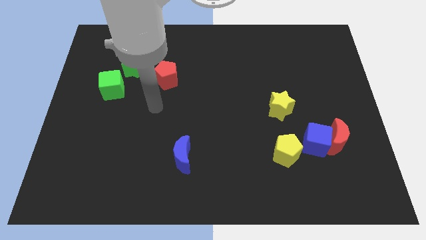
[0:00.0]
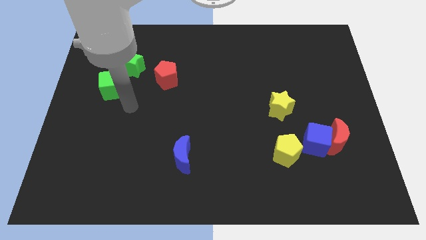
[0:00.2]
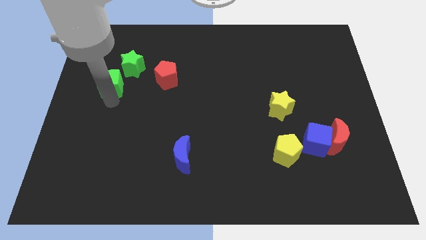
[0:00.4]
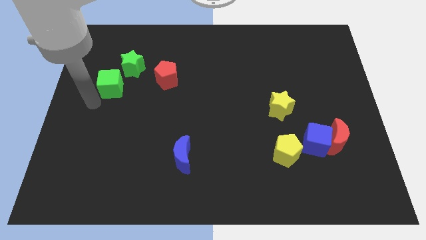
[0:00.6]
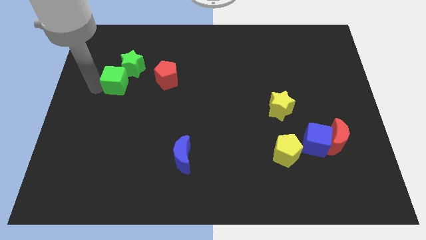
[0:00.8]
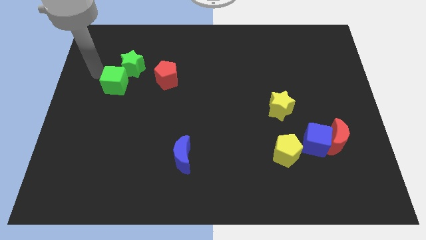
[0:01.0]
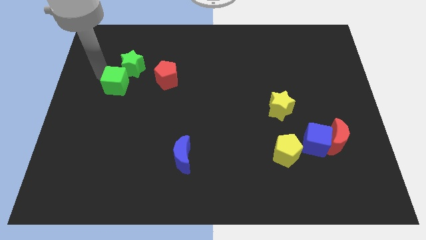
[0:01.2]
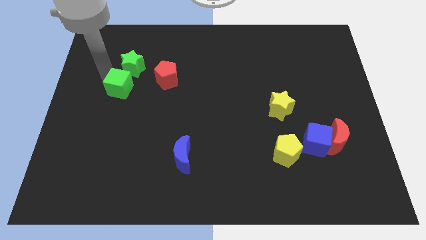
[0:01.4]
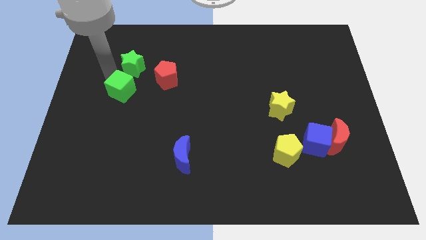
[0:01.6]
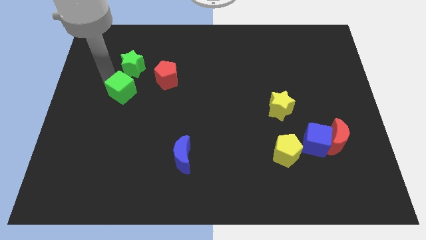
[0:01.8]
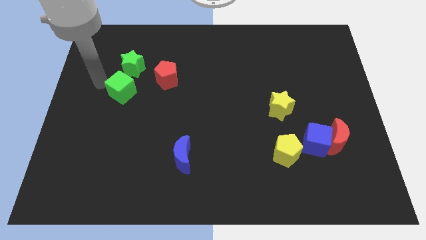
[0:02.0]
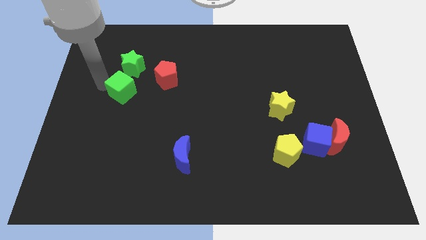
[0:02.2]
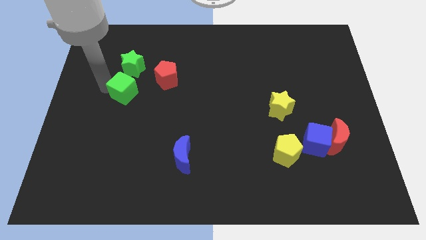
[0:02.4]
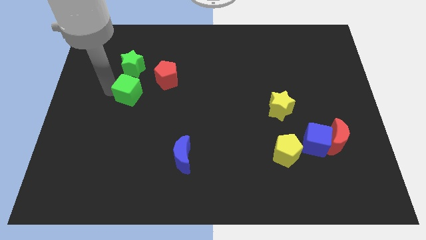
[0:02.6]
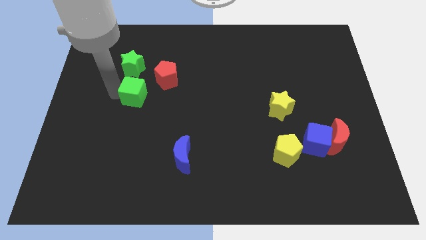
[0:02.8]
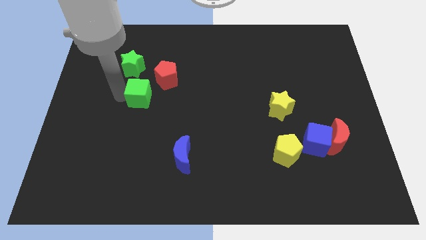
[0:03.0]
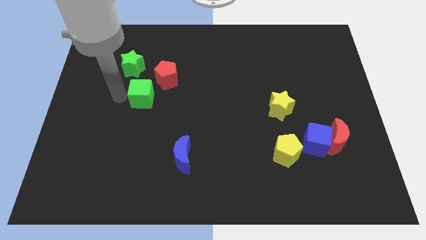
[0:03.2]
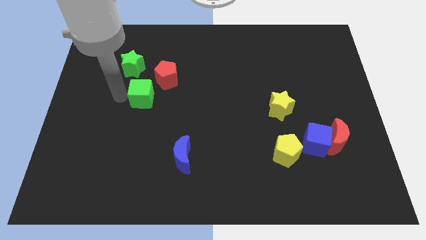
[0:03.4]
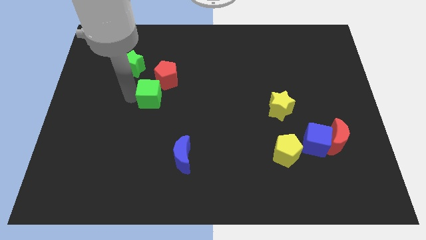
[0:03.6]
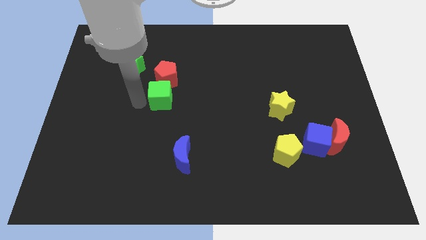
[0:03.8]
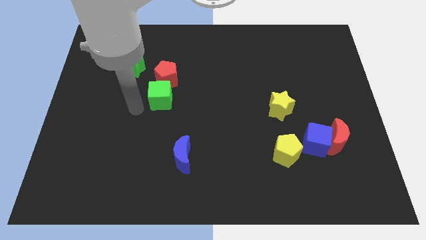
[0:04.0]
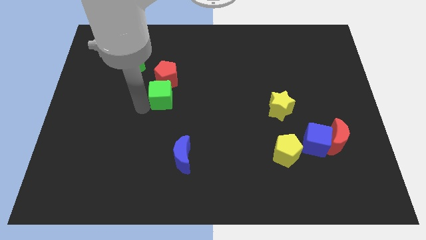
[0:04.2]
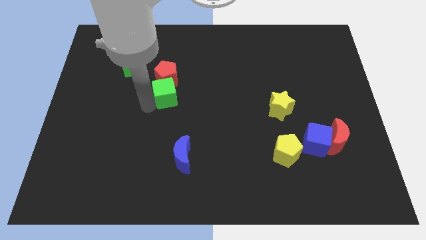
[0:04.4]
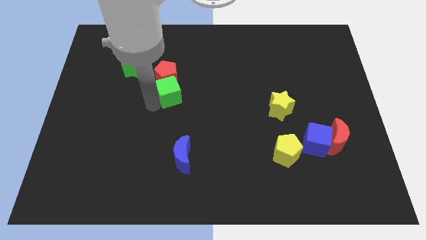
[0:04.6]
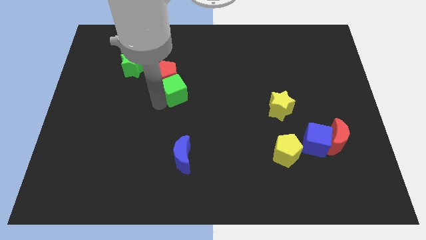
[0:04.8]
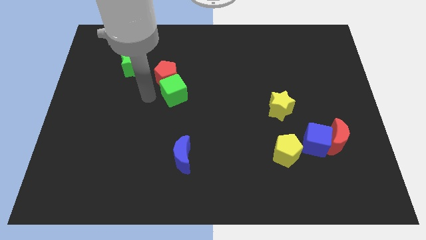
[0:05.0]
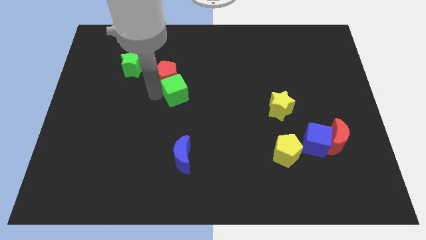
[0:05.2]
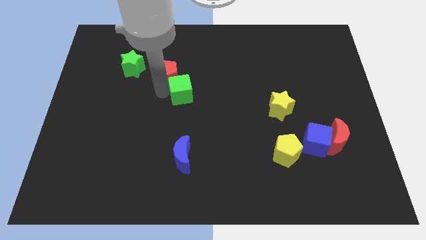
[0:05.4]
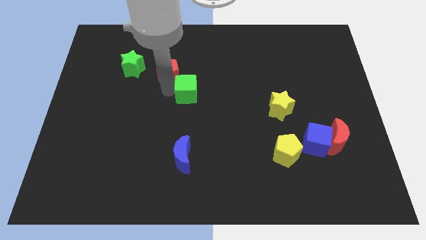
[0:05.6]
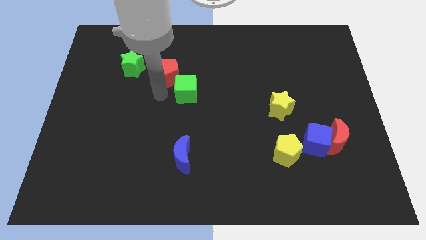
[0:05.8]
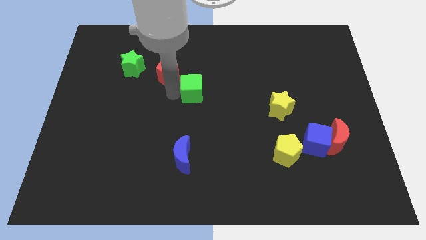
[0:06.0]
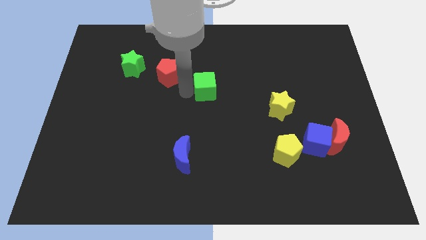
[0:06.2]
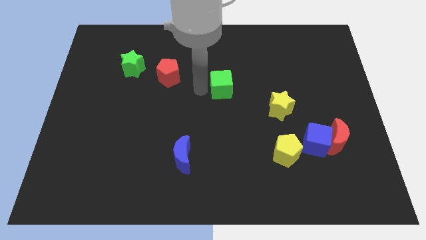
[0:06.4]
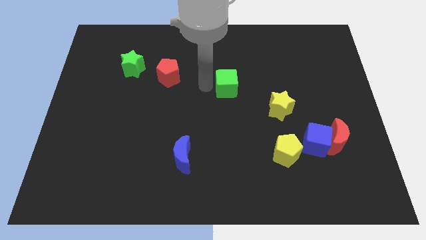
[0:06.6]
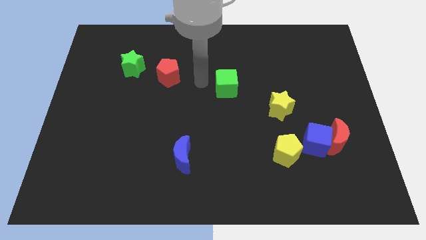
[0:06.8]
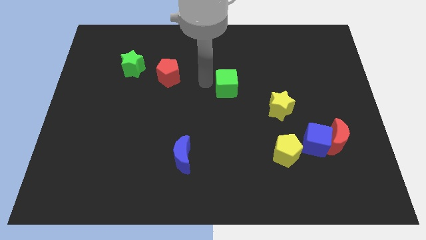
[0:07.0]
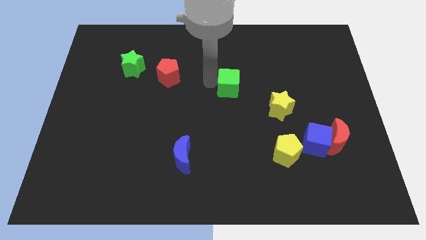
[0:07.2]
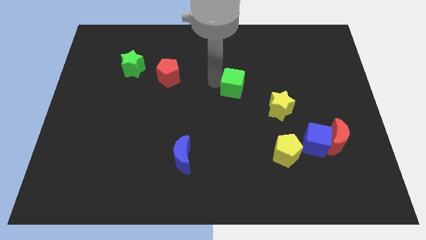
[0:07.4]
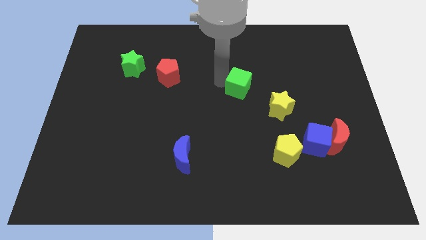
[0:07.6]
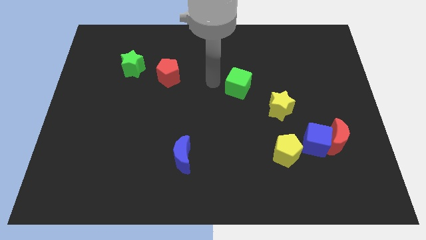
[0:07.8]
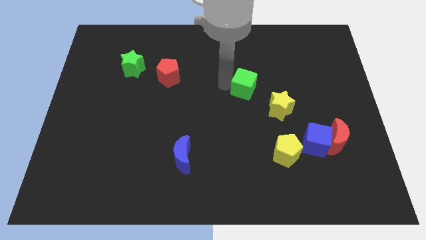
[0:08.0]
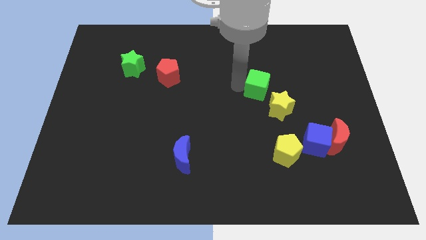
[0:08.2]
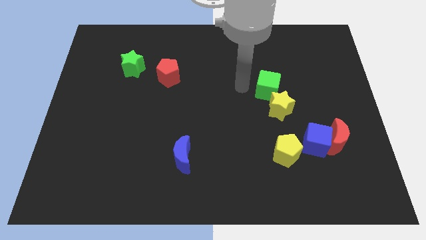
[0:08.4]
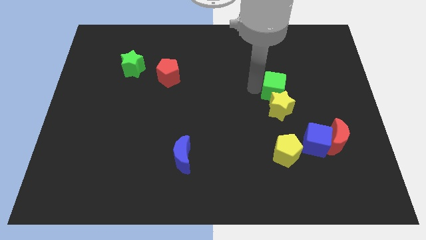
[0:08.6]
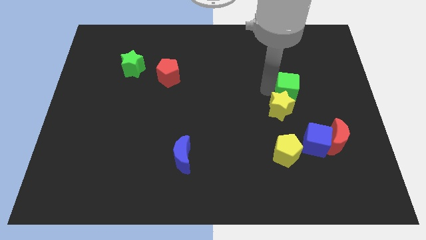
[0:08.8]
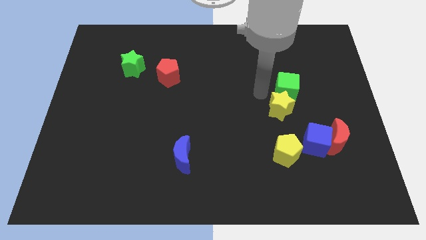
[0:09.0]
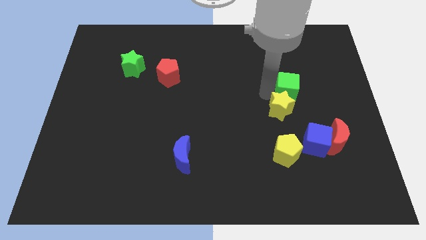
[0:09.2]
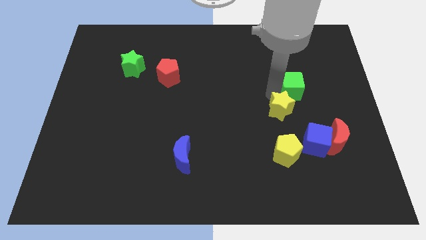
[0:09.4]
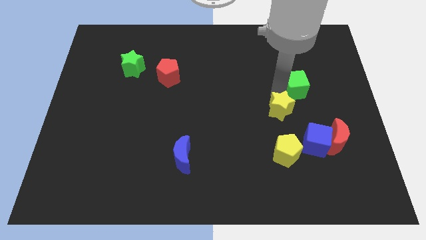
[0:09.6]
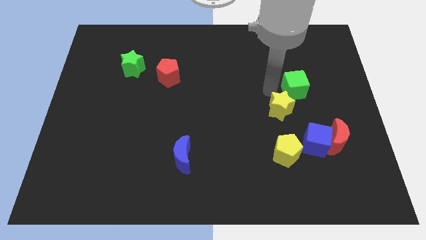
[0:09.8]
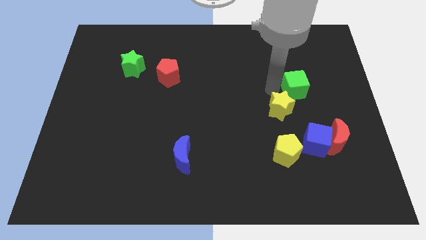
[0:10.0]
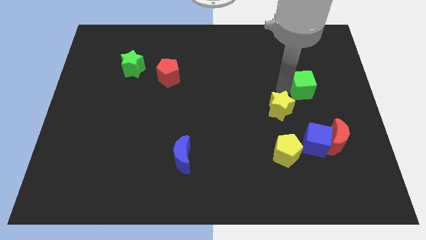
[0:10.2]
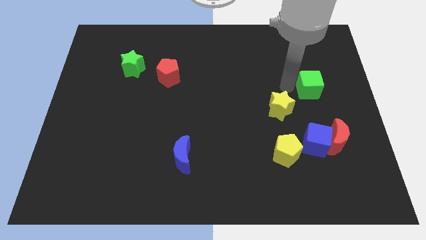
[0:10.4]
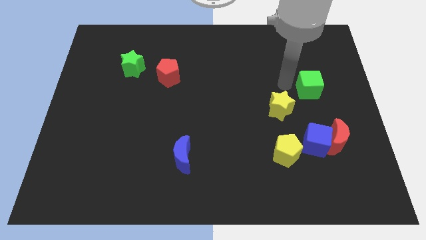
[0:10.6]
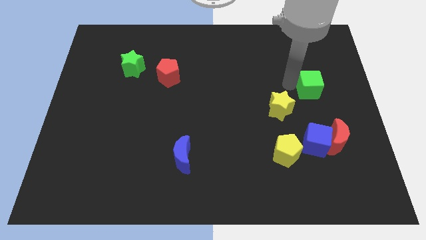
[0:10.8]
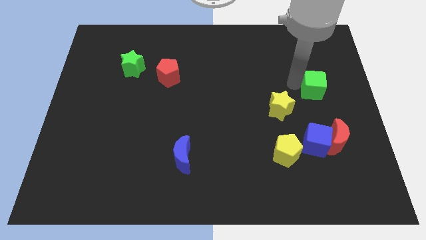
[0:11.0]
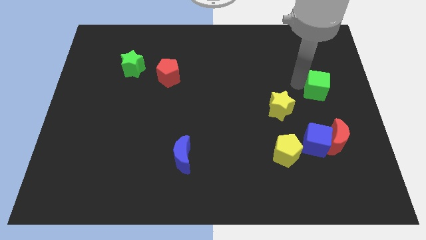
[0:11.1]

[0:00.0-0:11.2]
slide the green cube to the right side of the board

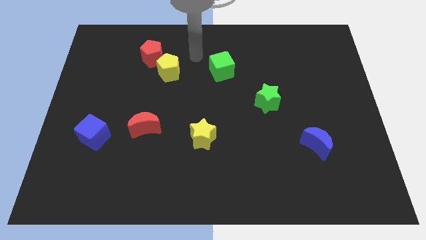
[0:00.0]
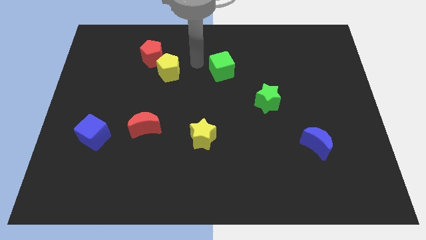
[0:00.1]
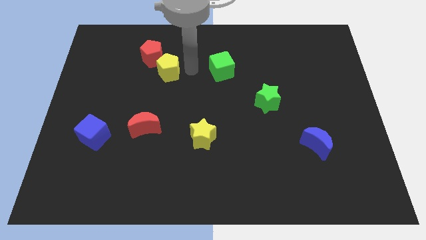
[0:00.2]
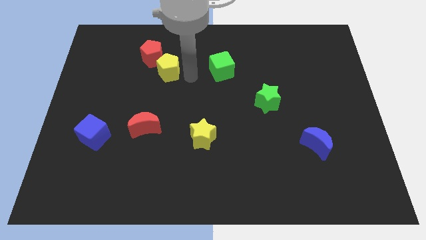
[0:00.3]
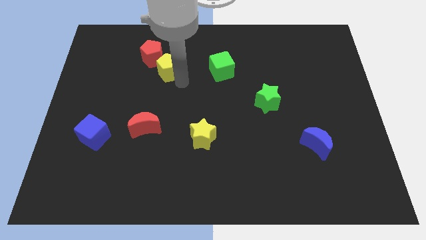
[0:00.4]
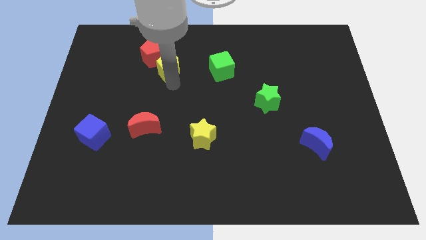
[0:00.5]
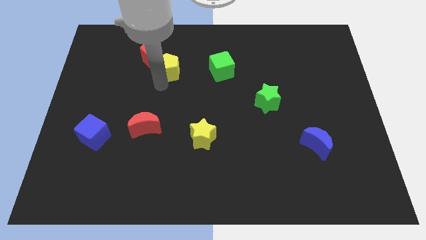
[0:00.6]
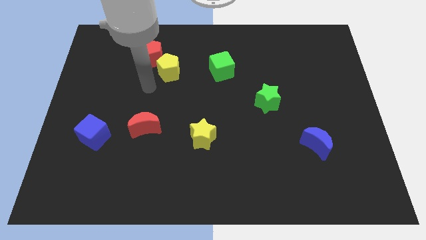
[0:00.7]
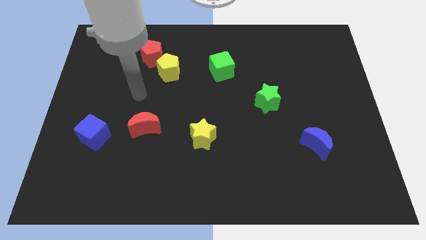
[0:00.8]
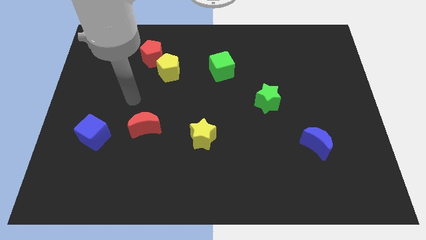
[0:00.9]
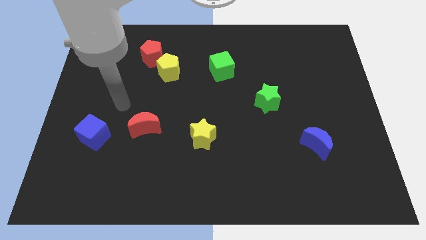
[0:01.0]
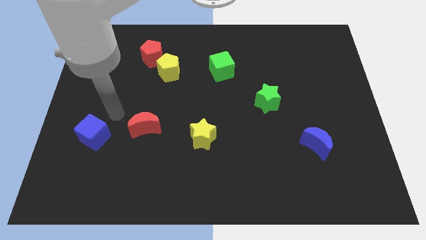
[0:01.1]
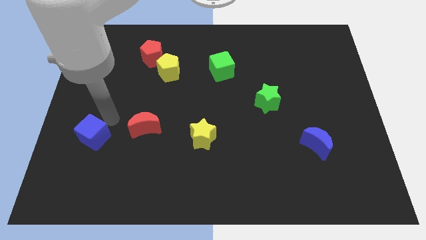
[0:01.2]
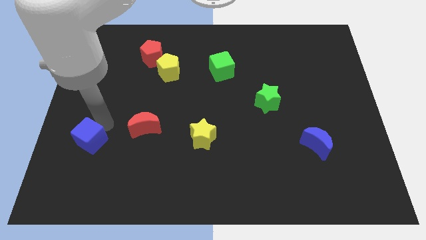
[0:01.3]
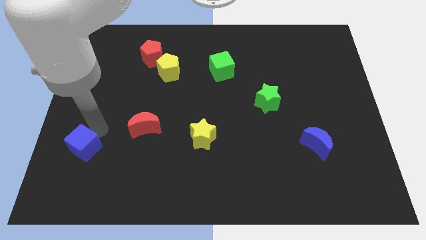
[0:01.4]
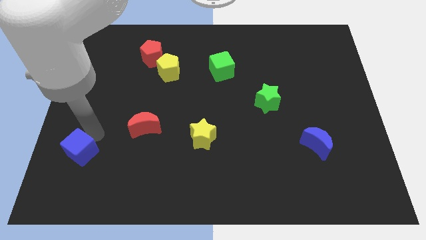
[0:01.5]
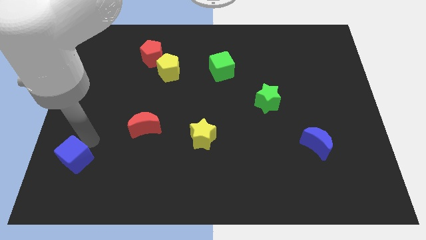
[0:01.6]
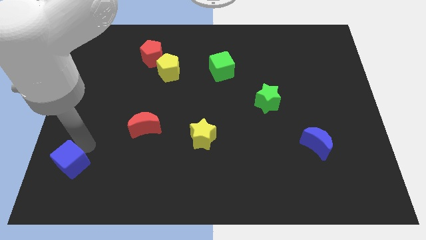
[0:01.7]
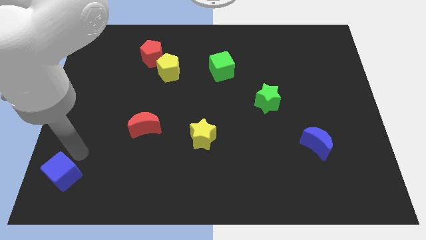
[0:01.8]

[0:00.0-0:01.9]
push the blue cube to the bottom left corner

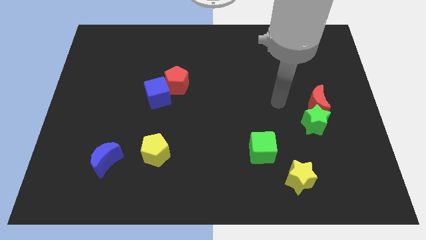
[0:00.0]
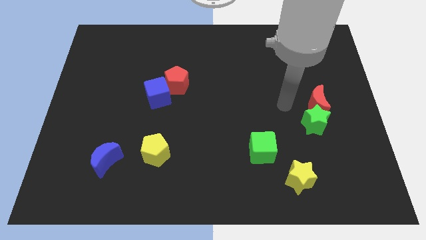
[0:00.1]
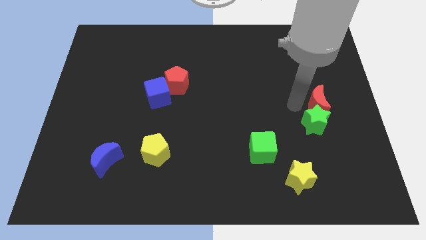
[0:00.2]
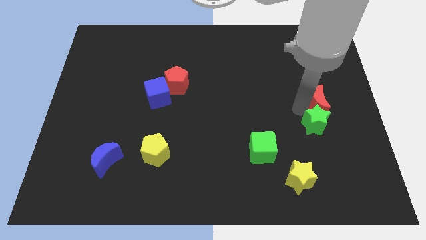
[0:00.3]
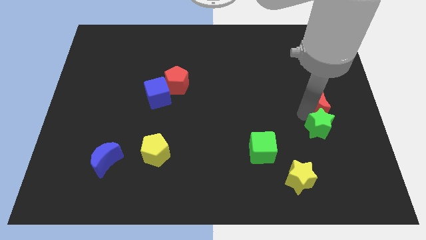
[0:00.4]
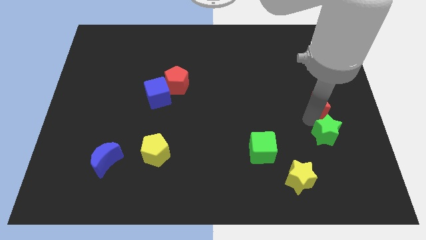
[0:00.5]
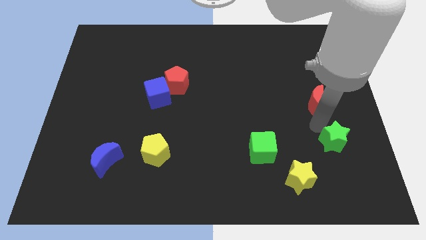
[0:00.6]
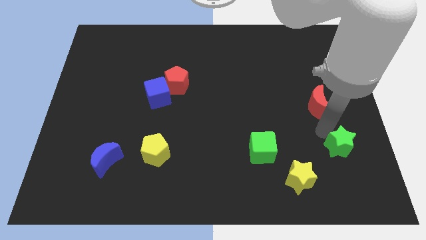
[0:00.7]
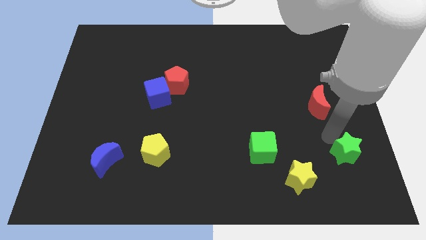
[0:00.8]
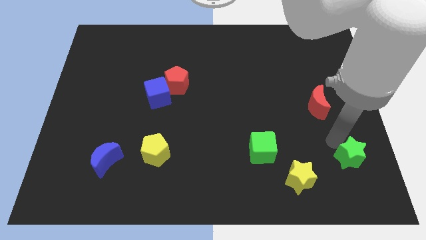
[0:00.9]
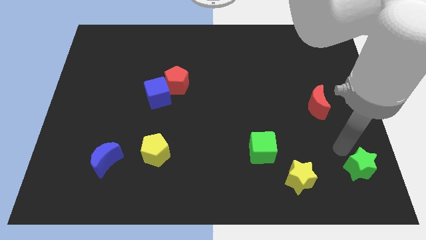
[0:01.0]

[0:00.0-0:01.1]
put the green star to the bottom right corner
